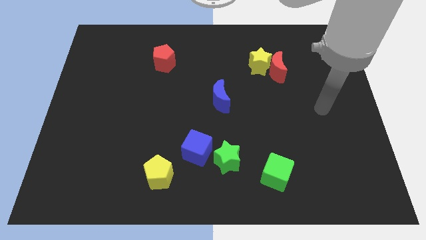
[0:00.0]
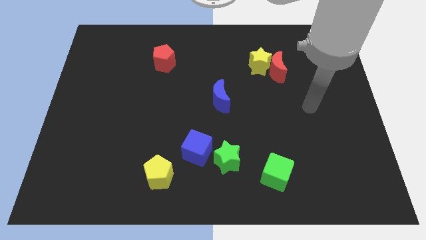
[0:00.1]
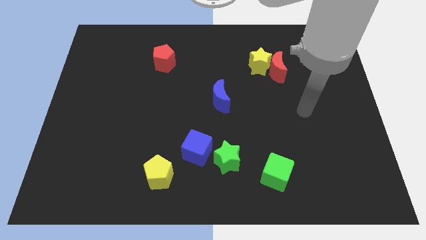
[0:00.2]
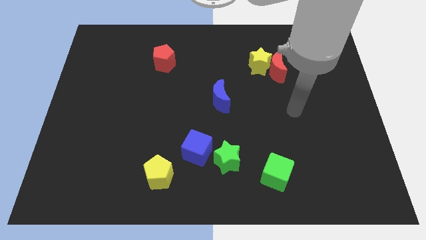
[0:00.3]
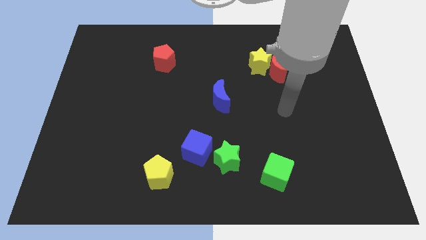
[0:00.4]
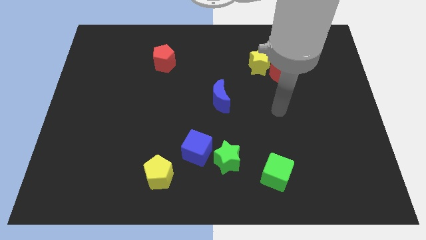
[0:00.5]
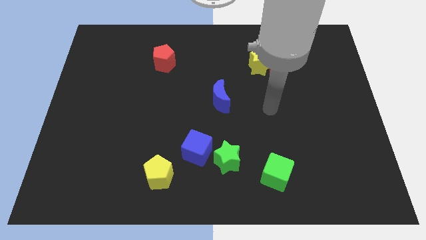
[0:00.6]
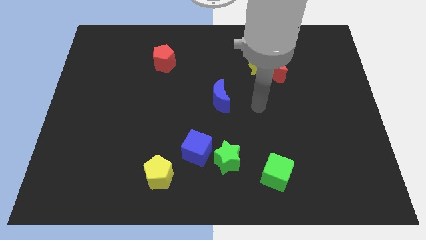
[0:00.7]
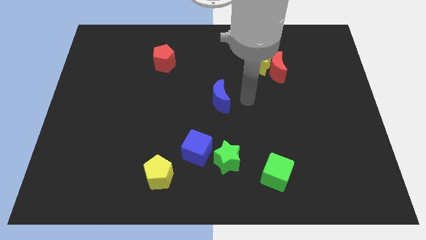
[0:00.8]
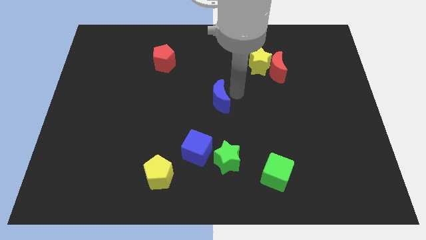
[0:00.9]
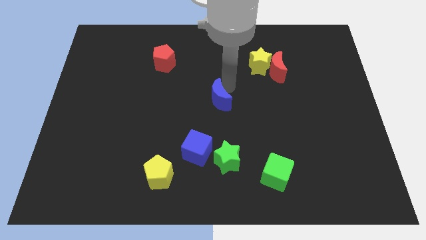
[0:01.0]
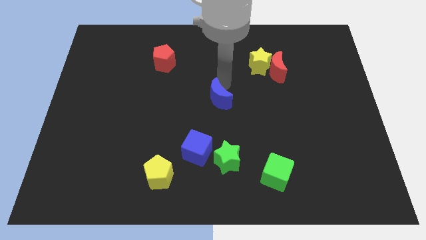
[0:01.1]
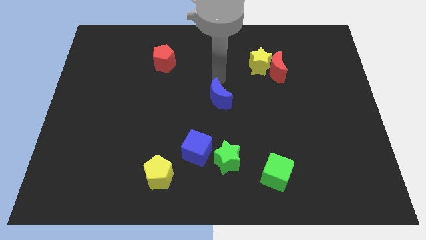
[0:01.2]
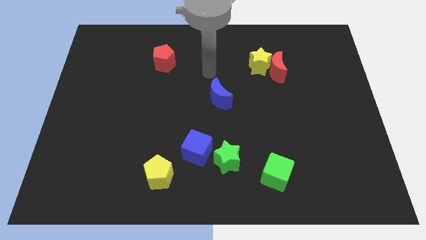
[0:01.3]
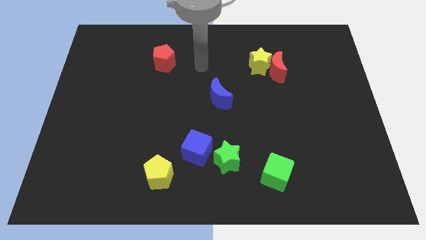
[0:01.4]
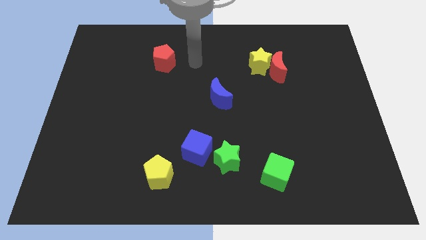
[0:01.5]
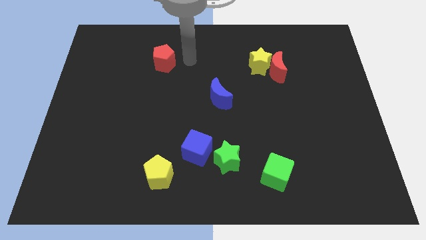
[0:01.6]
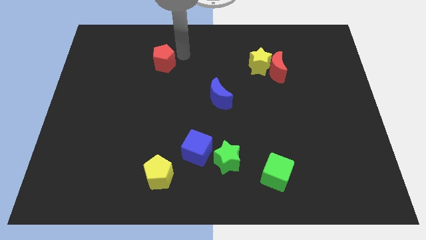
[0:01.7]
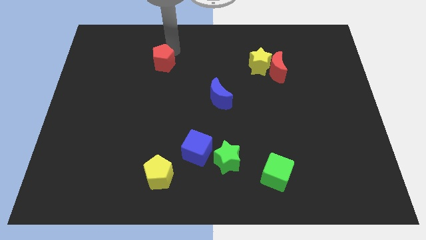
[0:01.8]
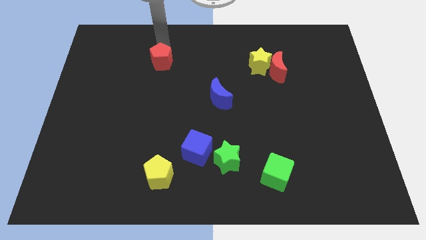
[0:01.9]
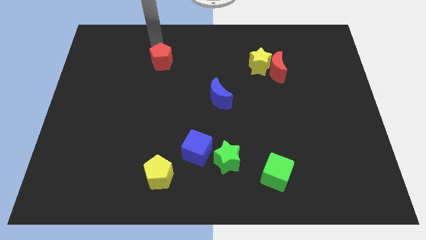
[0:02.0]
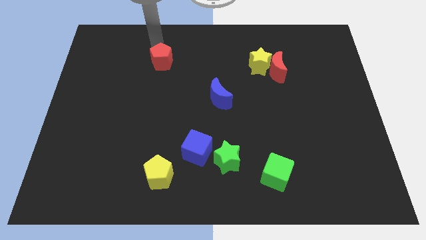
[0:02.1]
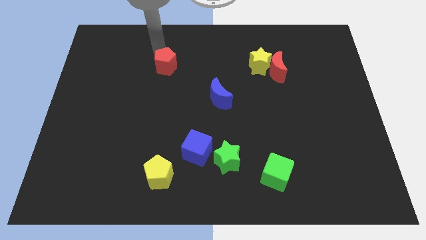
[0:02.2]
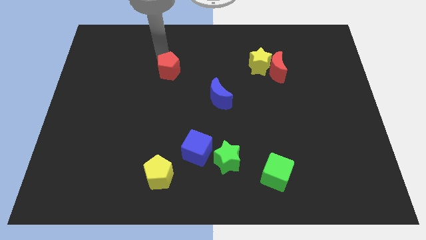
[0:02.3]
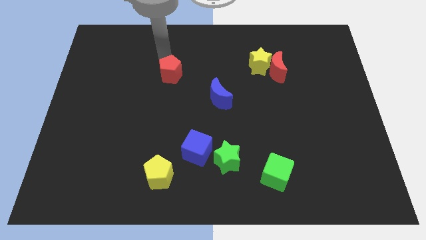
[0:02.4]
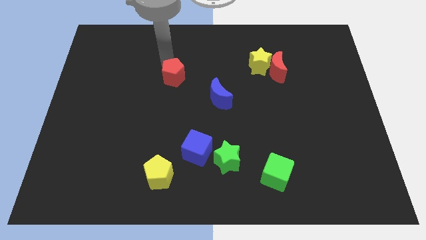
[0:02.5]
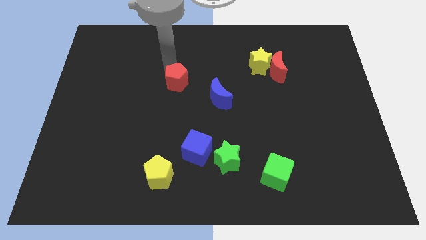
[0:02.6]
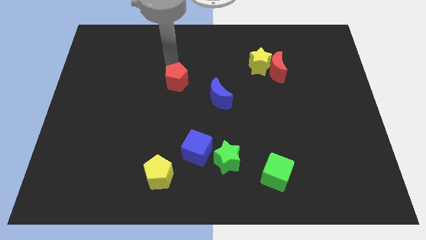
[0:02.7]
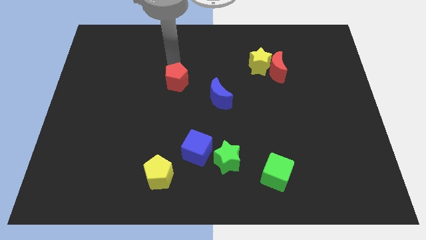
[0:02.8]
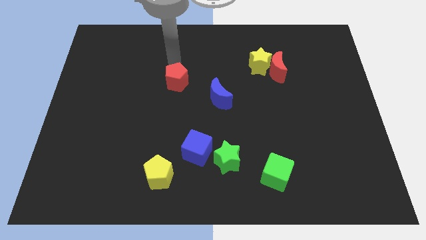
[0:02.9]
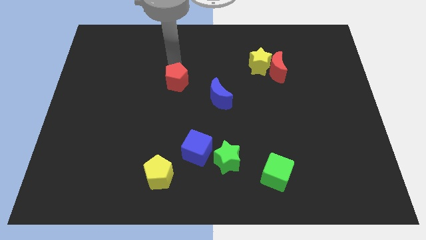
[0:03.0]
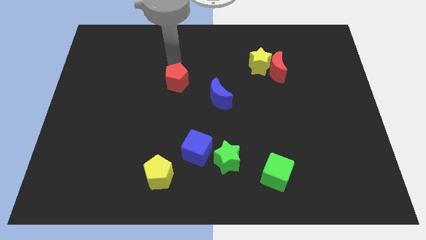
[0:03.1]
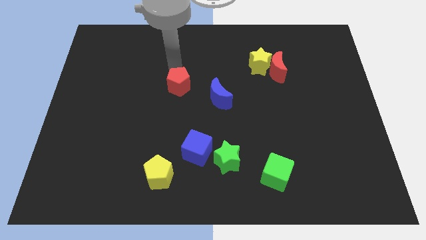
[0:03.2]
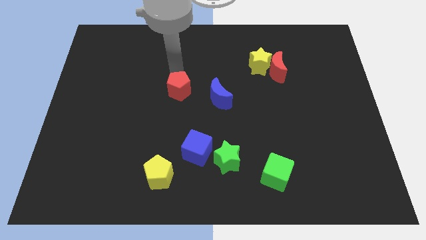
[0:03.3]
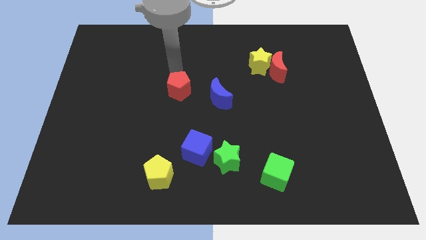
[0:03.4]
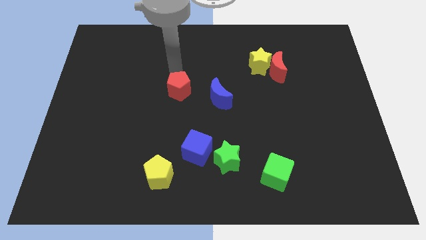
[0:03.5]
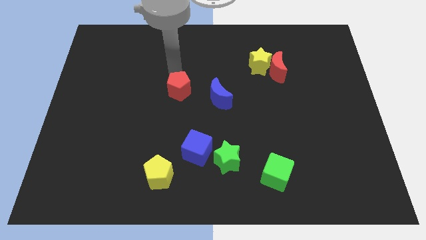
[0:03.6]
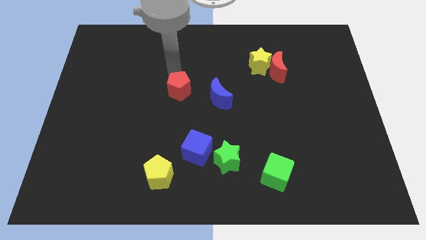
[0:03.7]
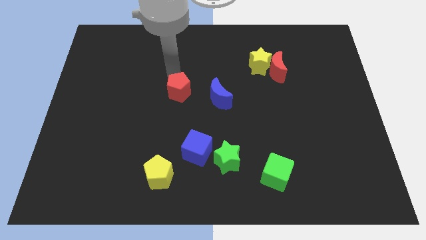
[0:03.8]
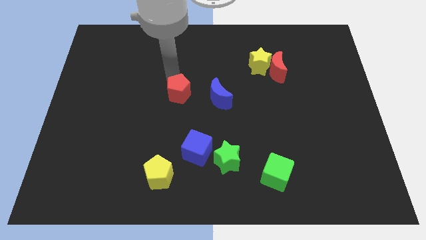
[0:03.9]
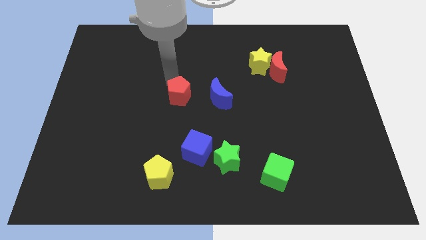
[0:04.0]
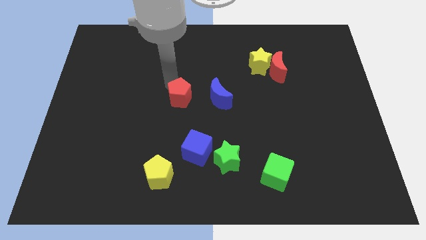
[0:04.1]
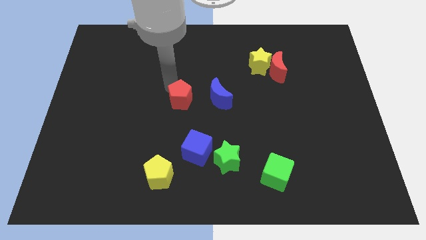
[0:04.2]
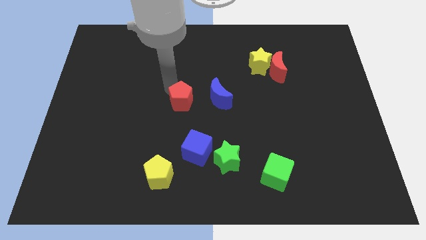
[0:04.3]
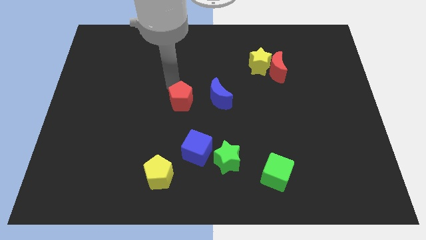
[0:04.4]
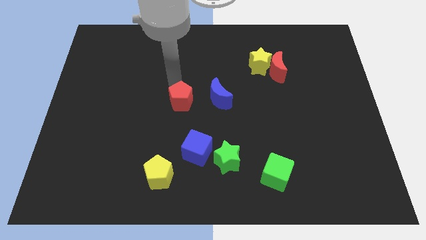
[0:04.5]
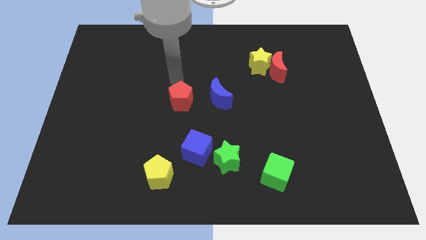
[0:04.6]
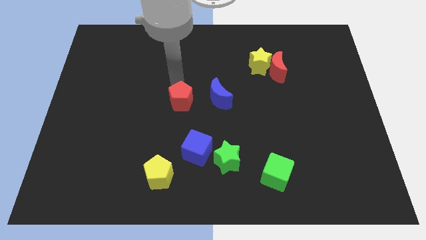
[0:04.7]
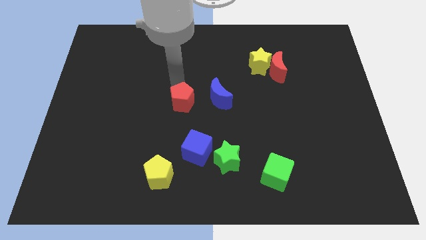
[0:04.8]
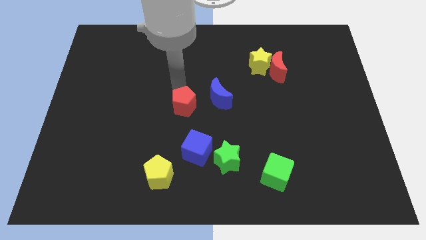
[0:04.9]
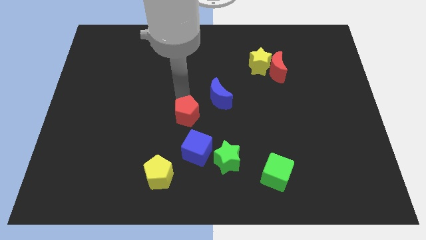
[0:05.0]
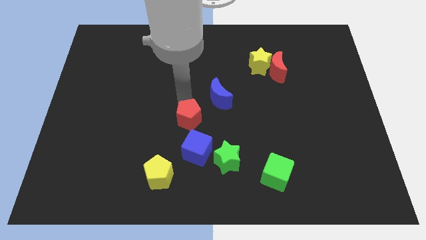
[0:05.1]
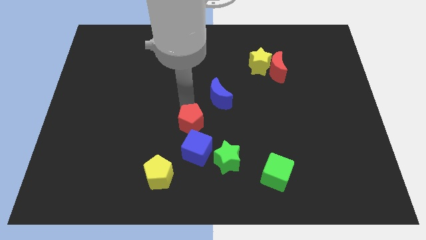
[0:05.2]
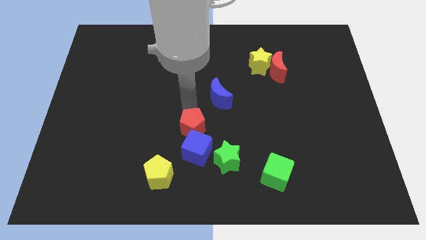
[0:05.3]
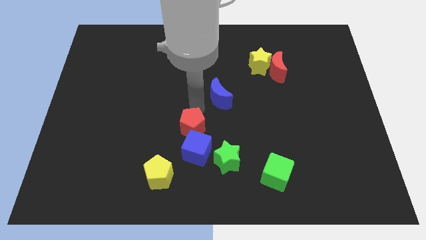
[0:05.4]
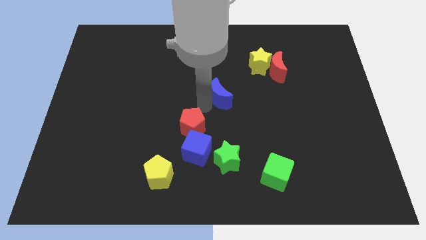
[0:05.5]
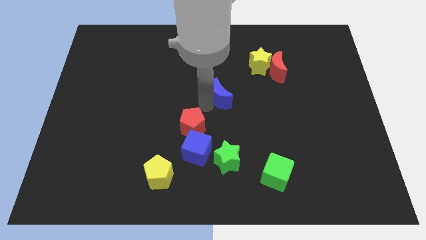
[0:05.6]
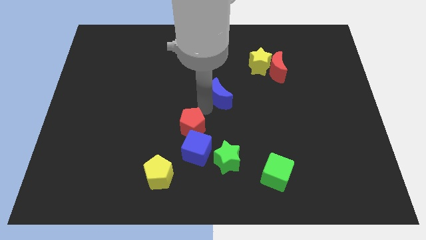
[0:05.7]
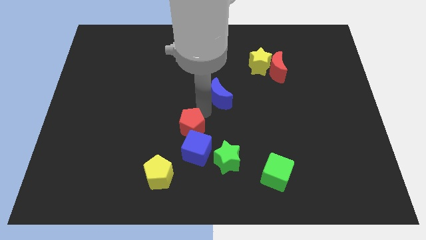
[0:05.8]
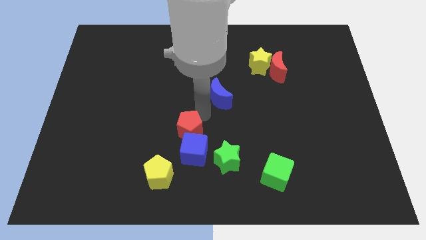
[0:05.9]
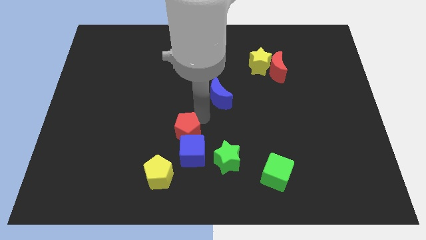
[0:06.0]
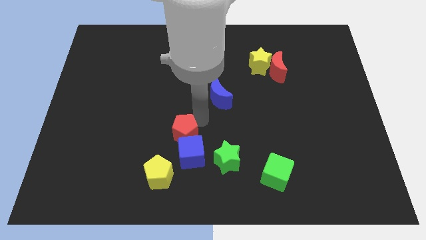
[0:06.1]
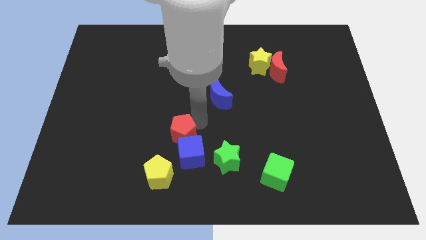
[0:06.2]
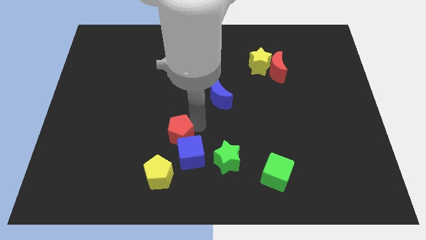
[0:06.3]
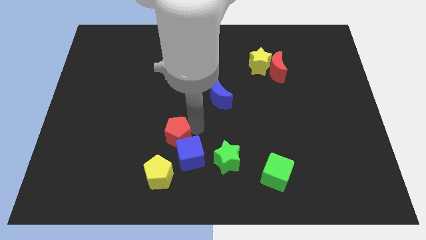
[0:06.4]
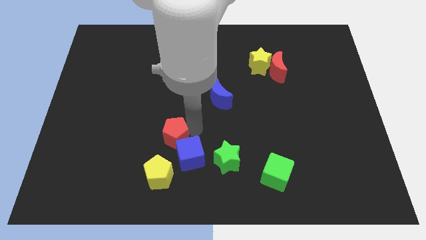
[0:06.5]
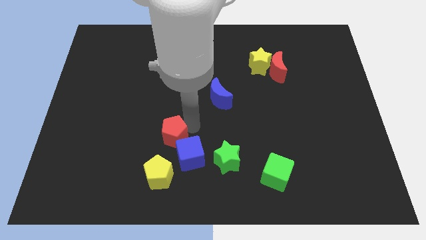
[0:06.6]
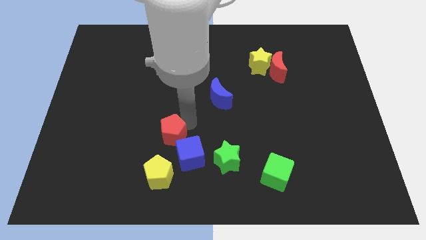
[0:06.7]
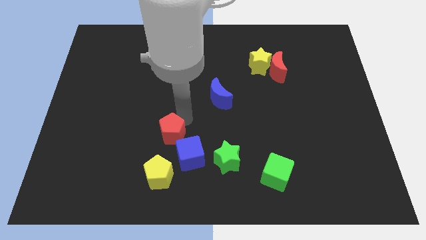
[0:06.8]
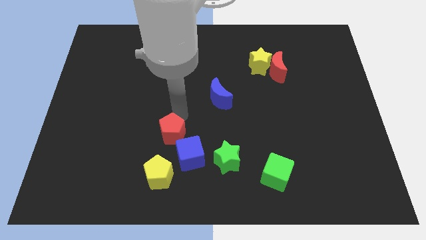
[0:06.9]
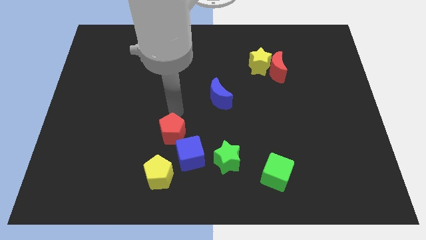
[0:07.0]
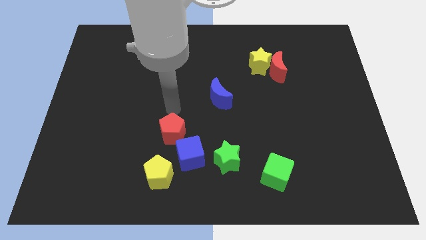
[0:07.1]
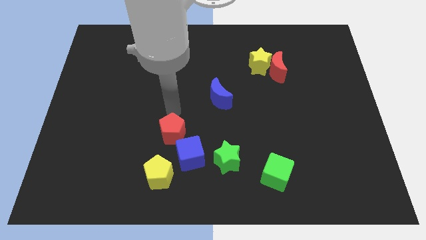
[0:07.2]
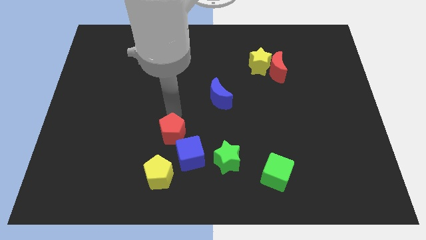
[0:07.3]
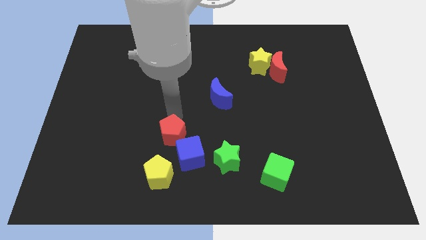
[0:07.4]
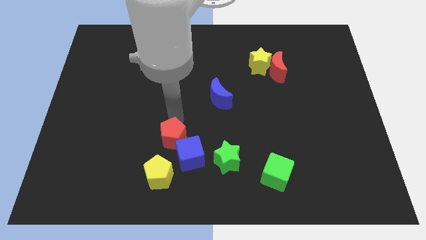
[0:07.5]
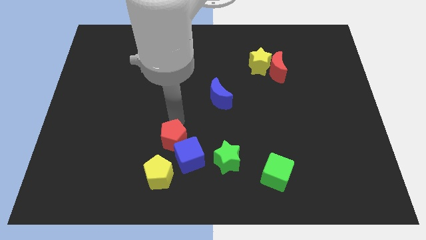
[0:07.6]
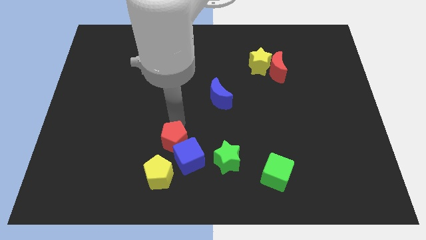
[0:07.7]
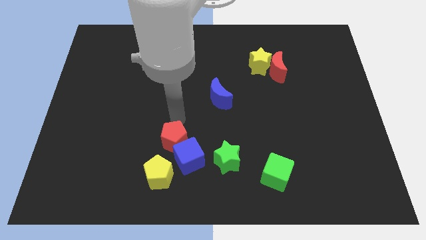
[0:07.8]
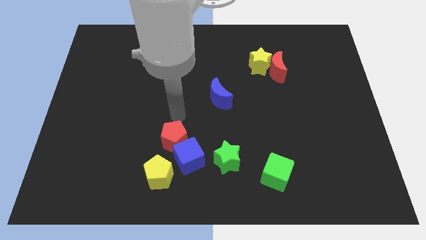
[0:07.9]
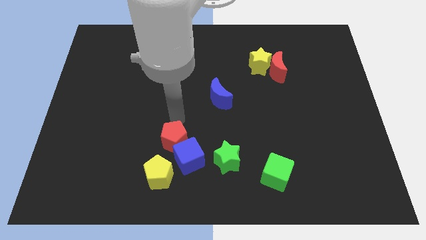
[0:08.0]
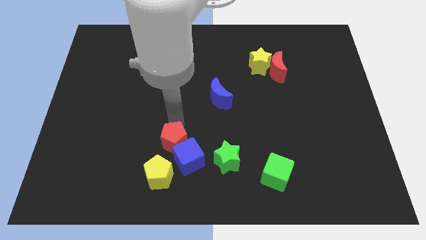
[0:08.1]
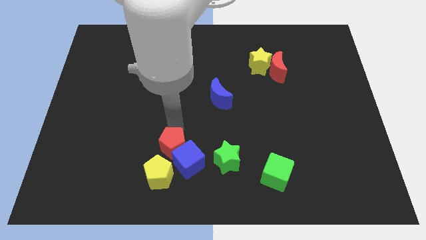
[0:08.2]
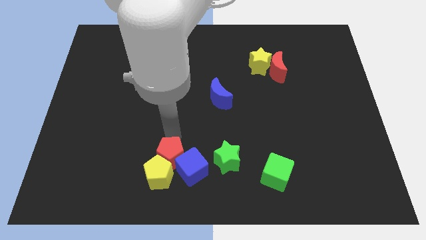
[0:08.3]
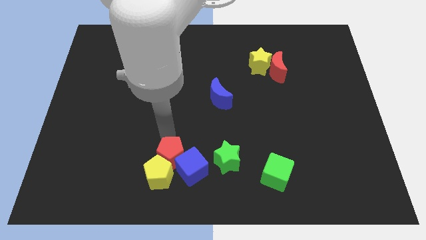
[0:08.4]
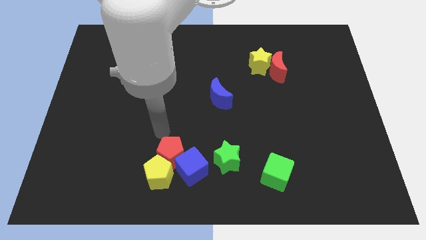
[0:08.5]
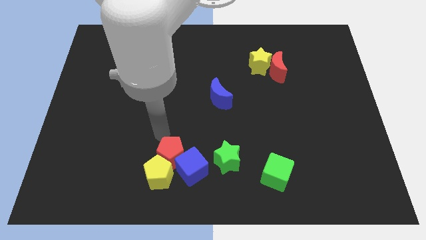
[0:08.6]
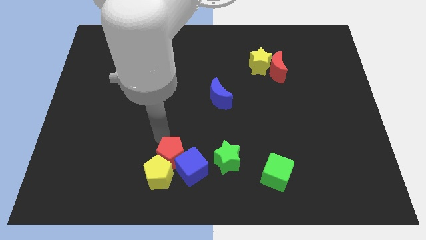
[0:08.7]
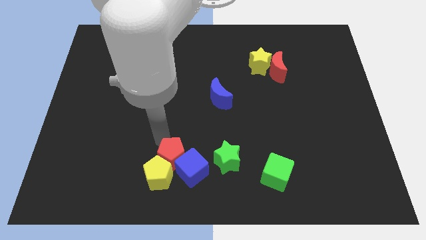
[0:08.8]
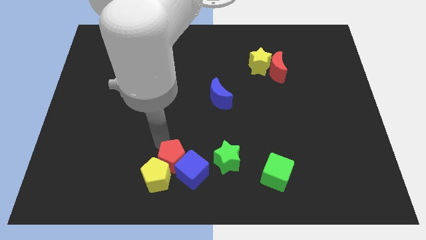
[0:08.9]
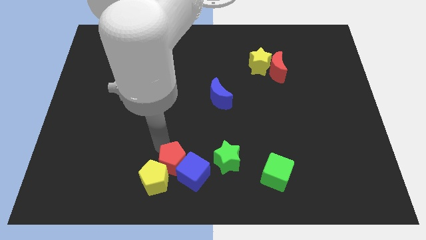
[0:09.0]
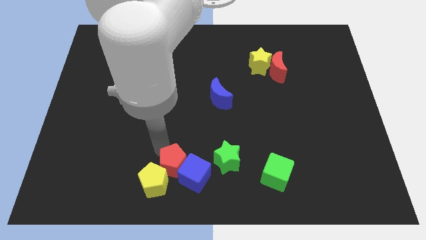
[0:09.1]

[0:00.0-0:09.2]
move the red pentagon to the bottom
